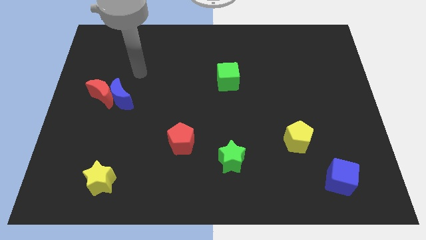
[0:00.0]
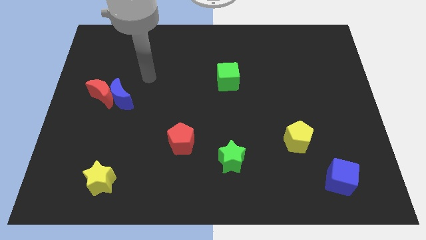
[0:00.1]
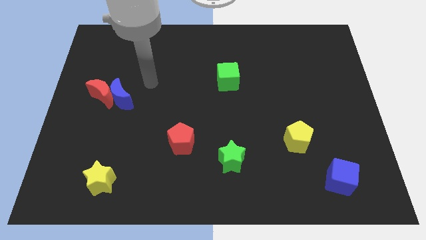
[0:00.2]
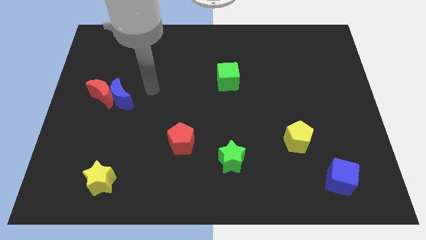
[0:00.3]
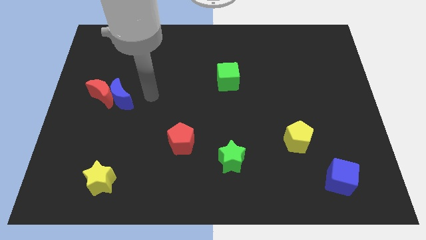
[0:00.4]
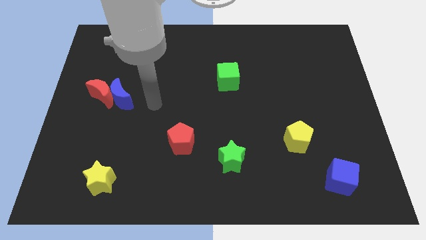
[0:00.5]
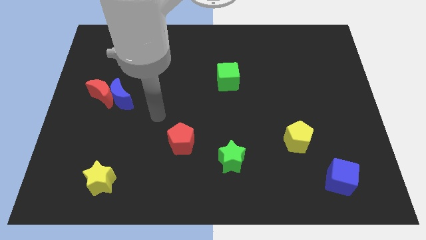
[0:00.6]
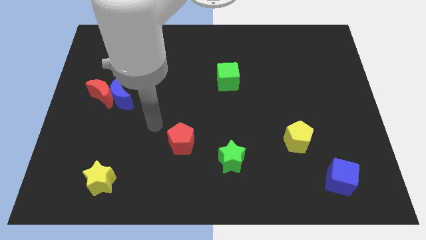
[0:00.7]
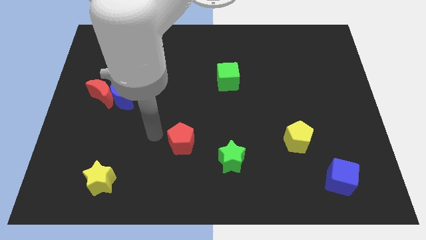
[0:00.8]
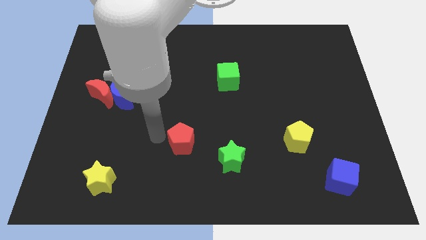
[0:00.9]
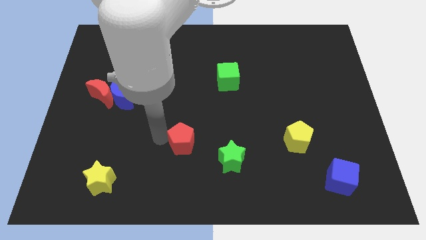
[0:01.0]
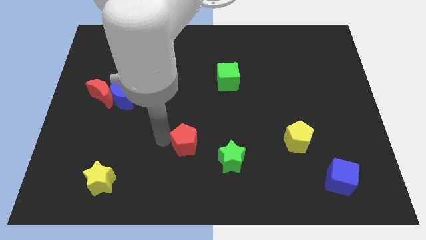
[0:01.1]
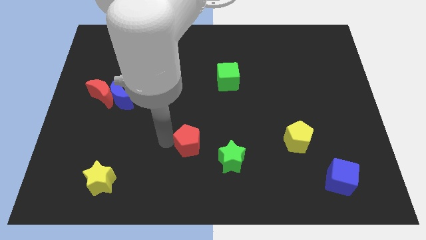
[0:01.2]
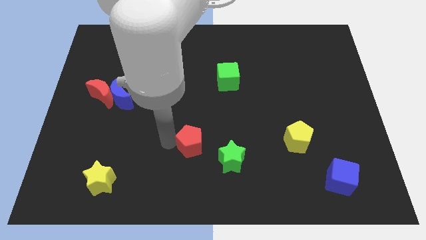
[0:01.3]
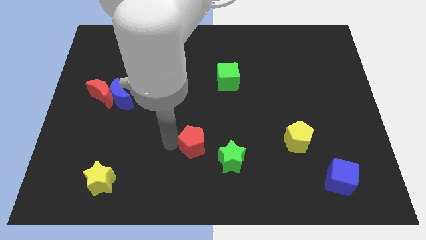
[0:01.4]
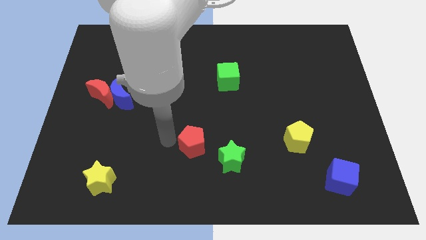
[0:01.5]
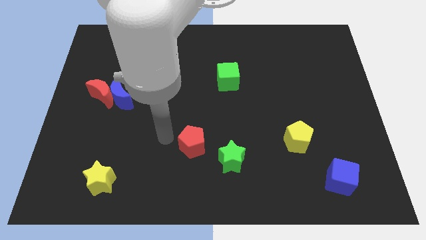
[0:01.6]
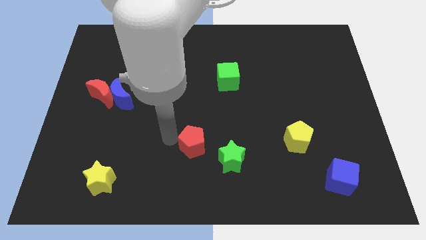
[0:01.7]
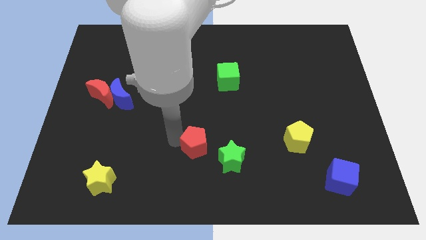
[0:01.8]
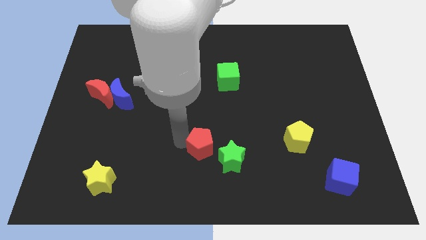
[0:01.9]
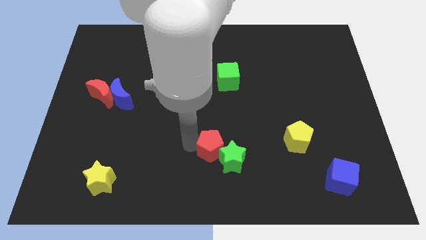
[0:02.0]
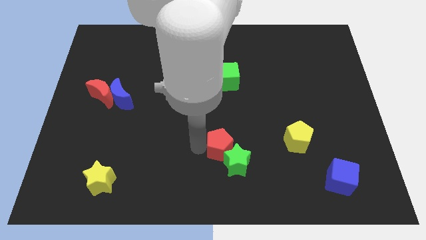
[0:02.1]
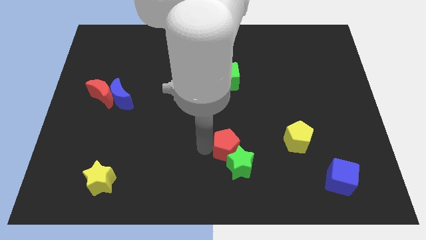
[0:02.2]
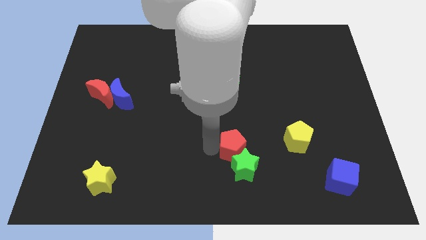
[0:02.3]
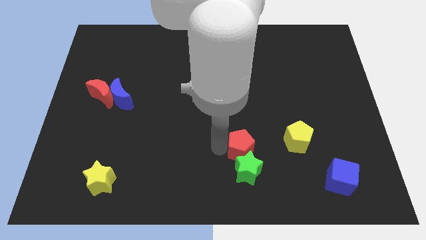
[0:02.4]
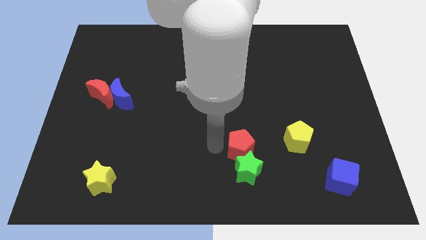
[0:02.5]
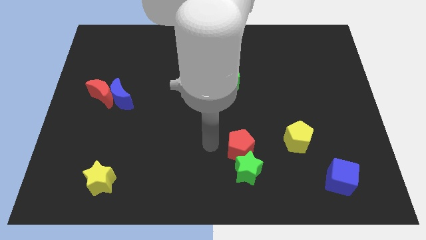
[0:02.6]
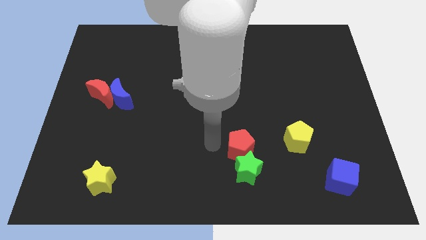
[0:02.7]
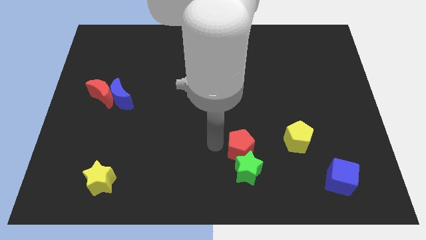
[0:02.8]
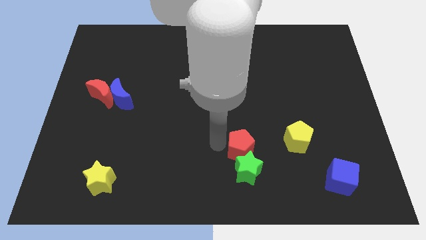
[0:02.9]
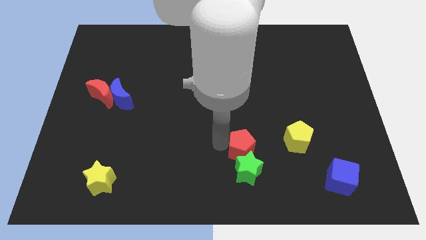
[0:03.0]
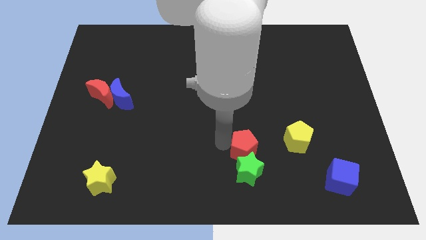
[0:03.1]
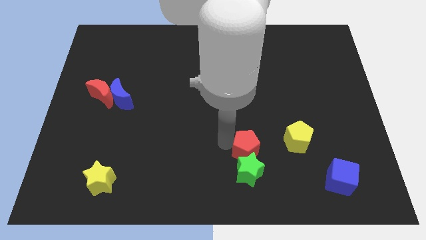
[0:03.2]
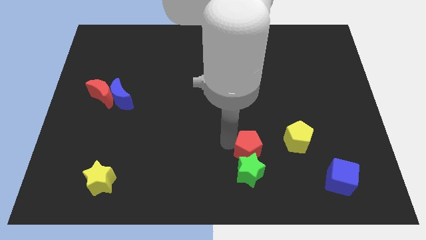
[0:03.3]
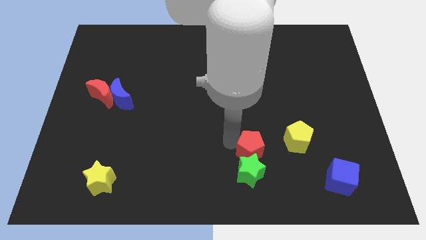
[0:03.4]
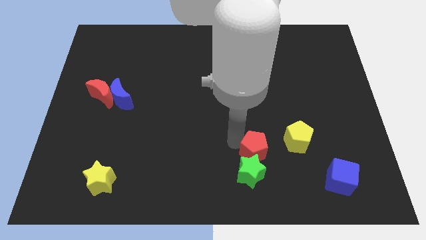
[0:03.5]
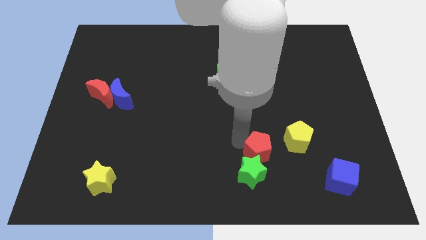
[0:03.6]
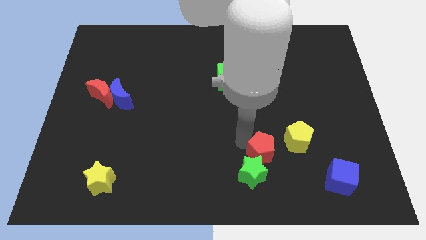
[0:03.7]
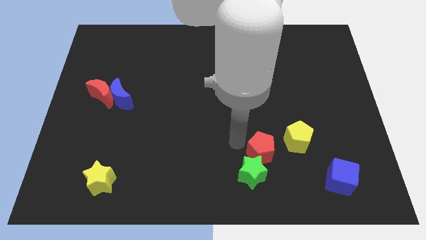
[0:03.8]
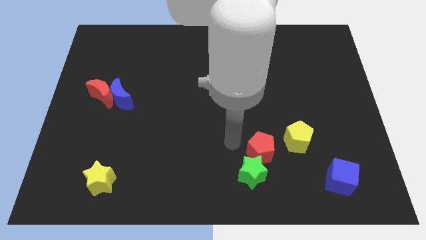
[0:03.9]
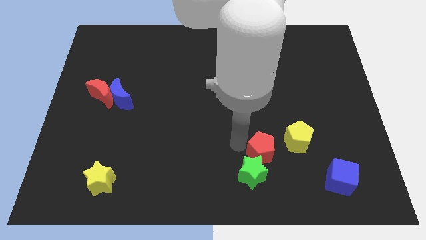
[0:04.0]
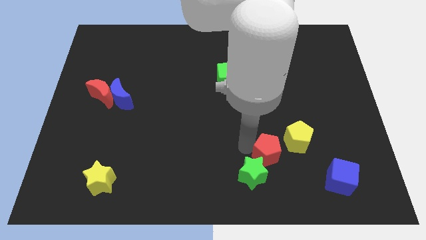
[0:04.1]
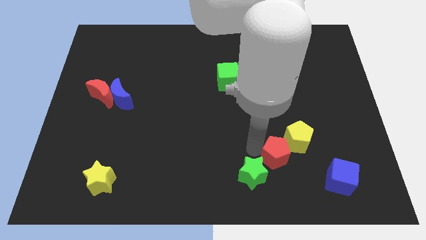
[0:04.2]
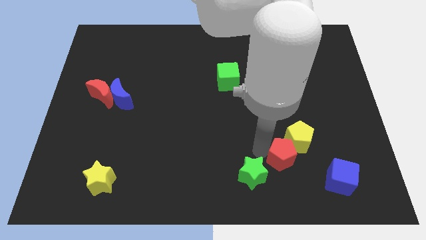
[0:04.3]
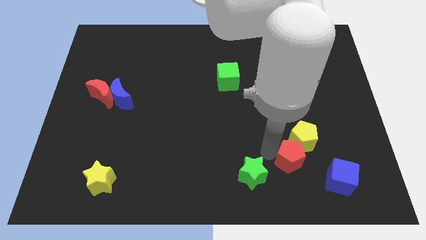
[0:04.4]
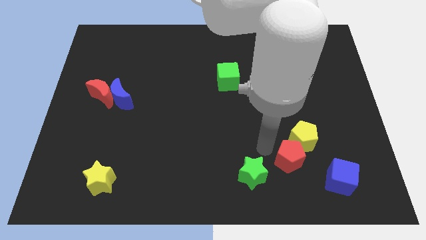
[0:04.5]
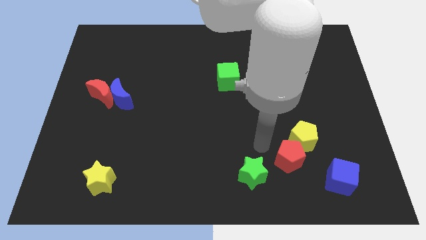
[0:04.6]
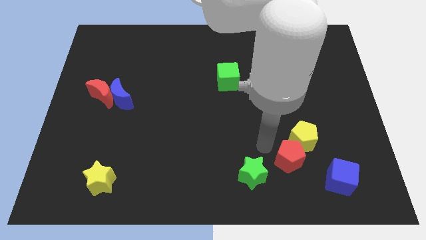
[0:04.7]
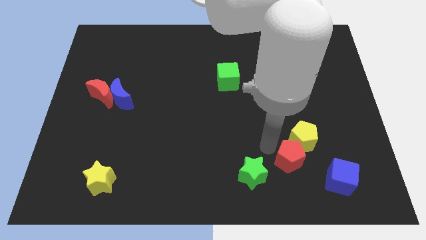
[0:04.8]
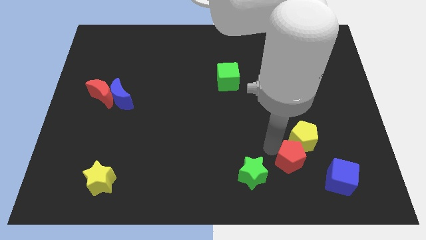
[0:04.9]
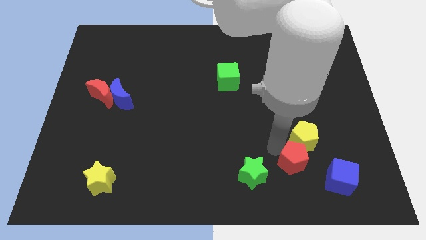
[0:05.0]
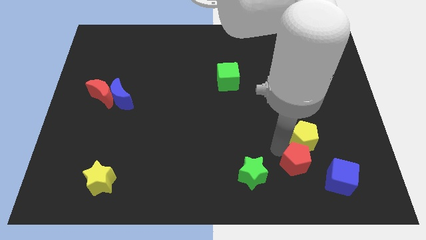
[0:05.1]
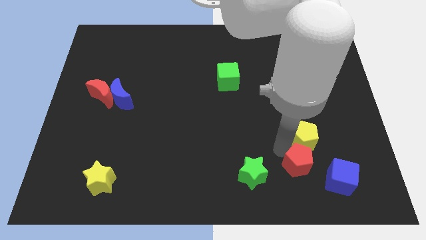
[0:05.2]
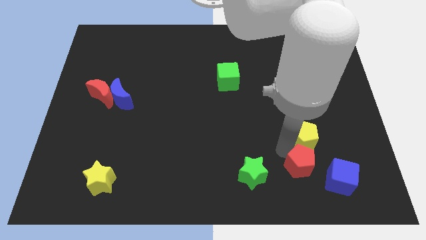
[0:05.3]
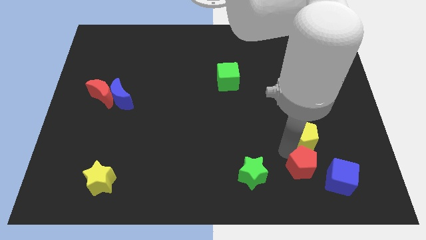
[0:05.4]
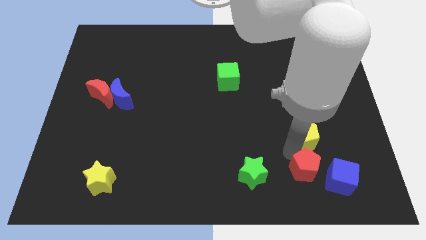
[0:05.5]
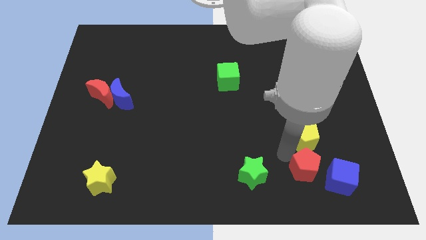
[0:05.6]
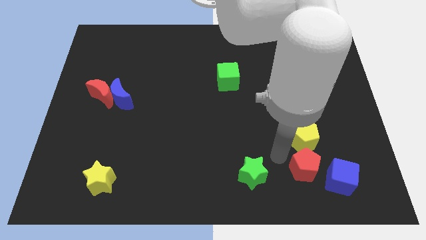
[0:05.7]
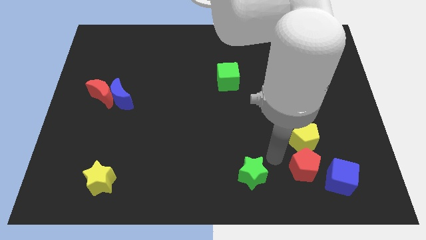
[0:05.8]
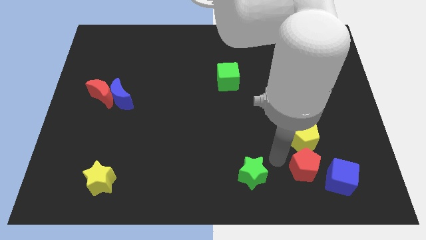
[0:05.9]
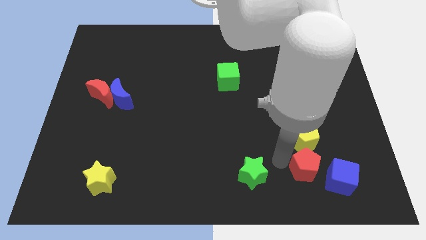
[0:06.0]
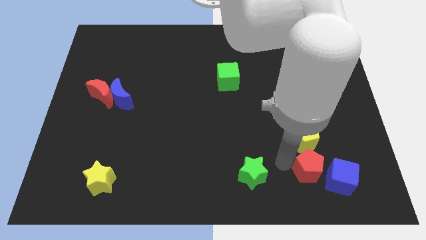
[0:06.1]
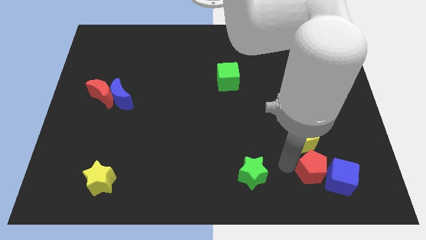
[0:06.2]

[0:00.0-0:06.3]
push the red pentagon close to the blue cube

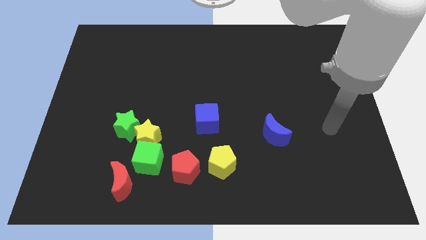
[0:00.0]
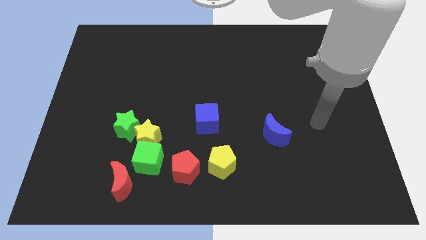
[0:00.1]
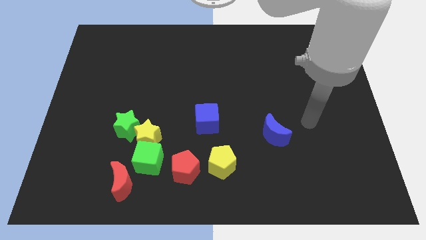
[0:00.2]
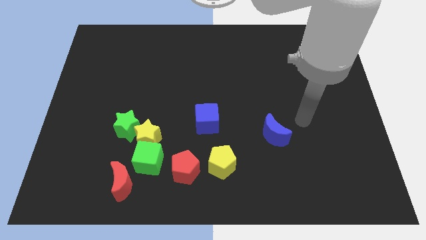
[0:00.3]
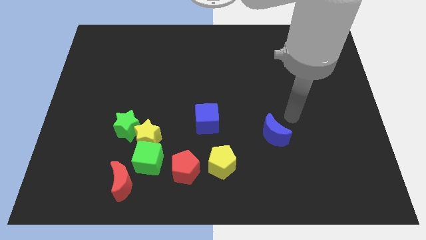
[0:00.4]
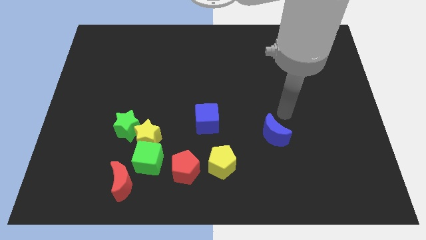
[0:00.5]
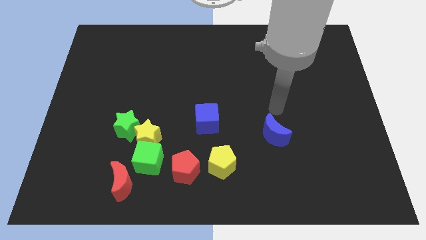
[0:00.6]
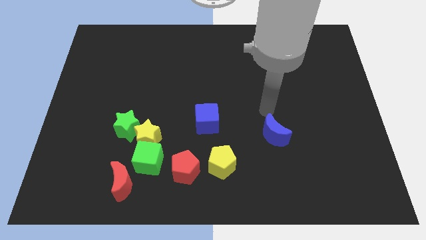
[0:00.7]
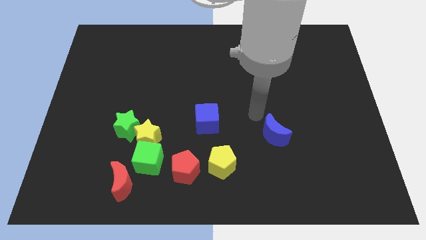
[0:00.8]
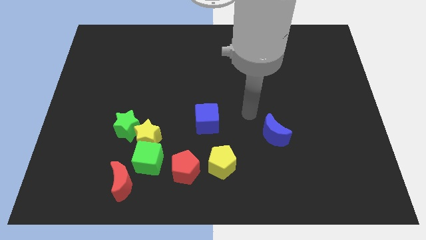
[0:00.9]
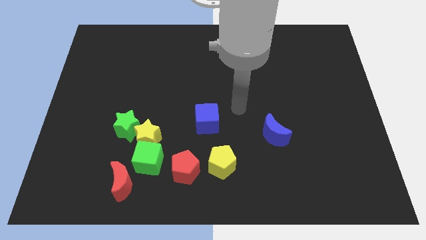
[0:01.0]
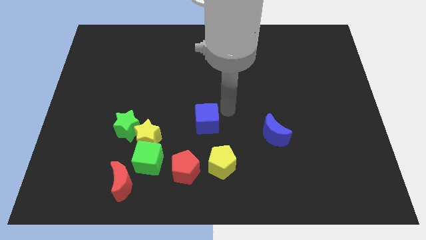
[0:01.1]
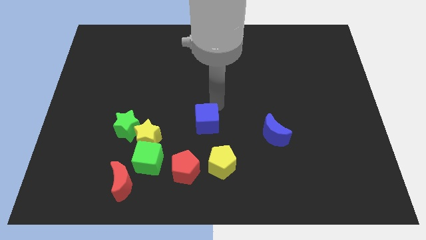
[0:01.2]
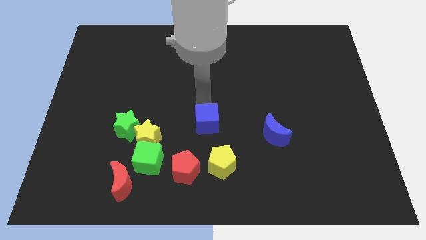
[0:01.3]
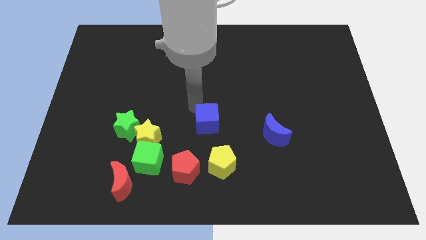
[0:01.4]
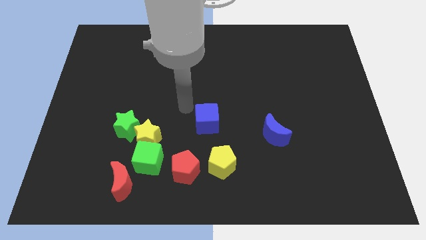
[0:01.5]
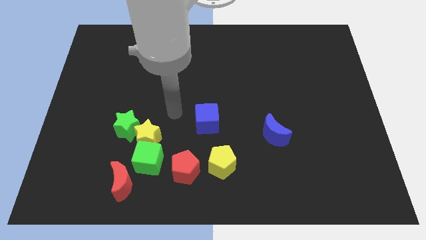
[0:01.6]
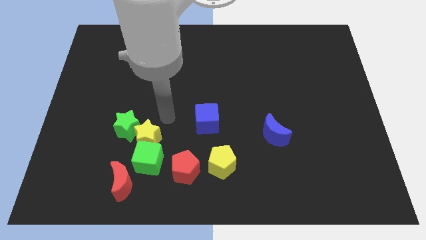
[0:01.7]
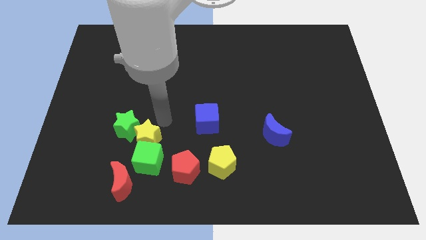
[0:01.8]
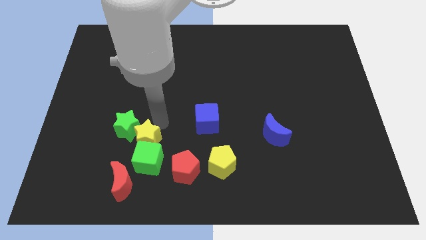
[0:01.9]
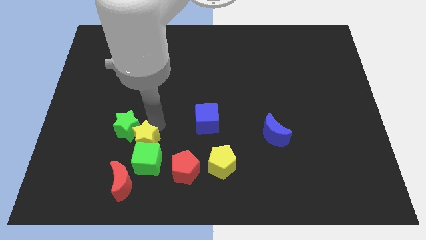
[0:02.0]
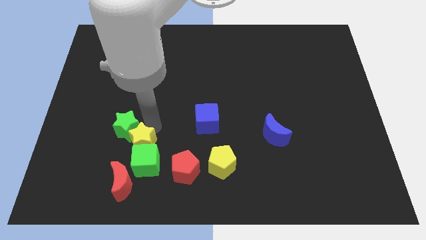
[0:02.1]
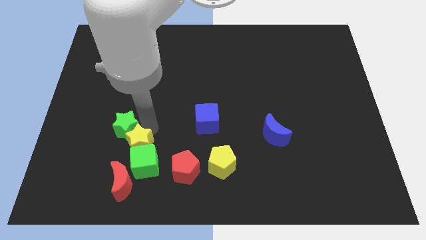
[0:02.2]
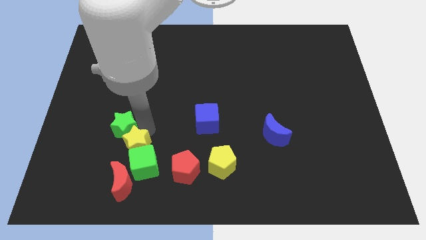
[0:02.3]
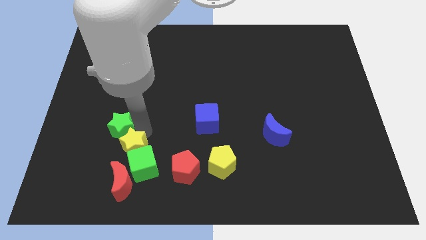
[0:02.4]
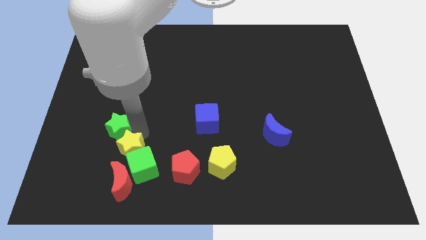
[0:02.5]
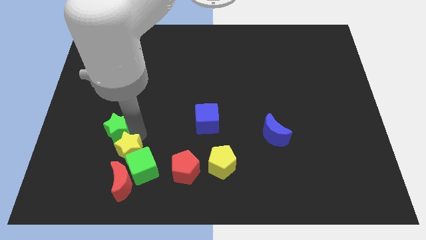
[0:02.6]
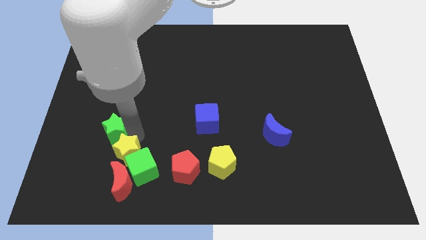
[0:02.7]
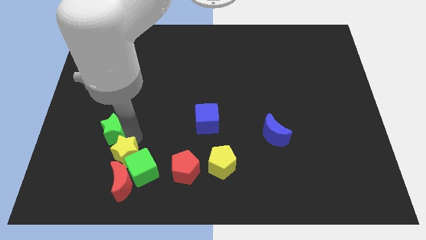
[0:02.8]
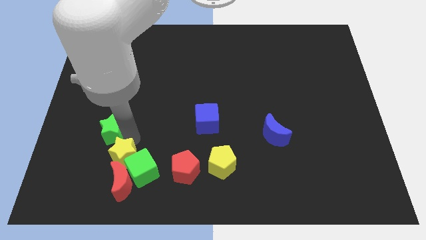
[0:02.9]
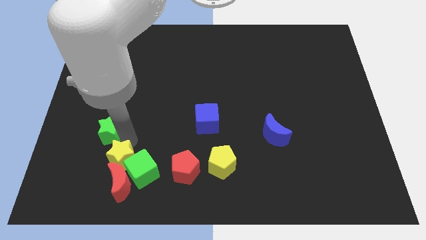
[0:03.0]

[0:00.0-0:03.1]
push the yellow star towards the red moon
